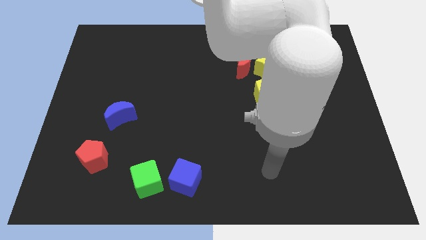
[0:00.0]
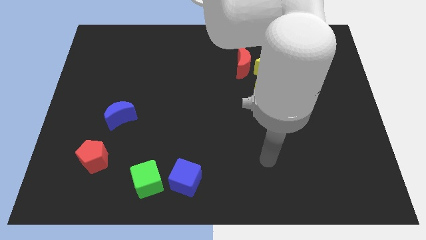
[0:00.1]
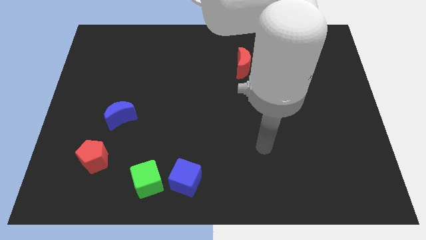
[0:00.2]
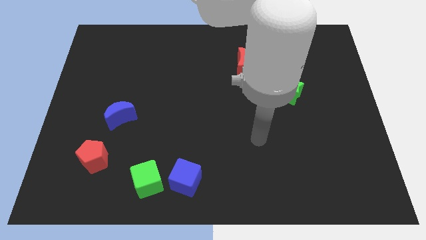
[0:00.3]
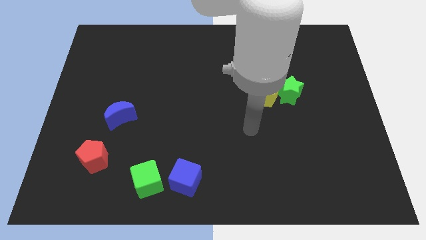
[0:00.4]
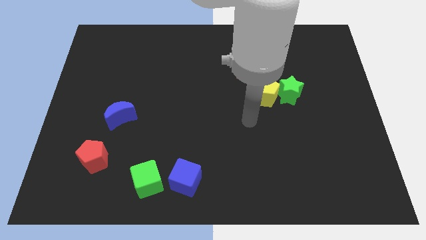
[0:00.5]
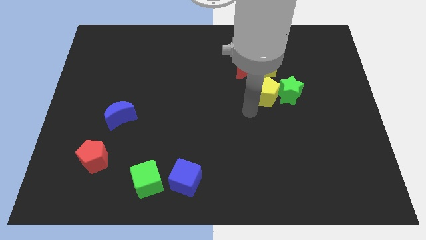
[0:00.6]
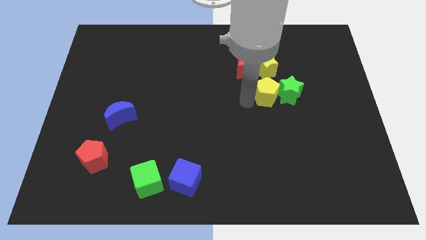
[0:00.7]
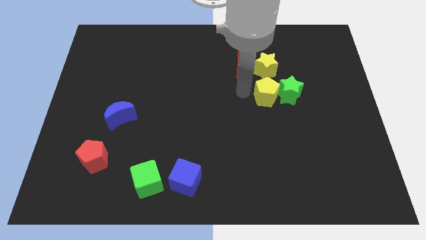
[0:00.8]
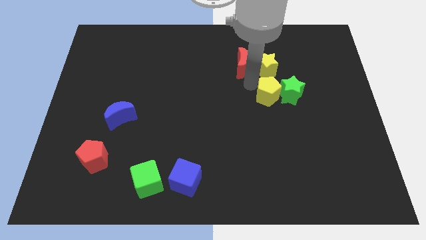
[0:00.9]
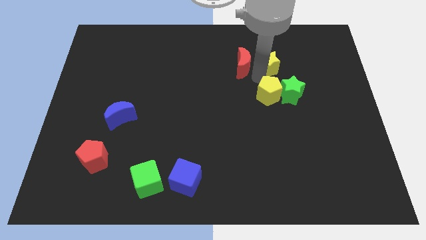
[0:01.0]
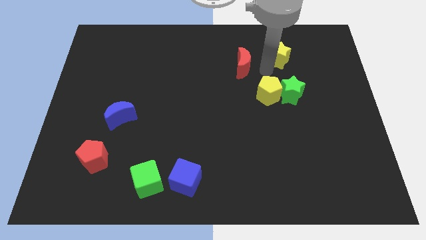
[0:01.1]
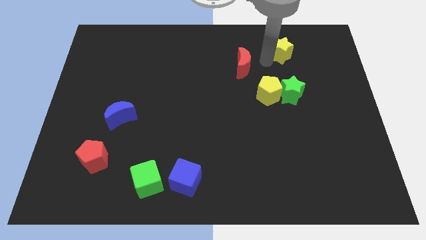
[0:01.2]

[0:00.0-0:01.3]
pull the red moon apart from the yellow star

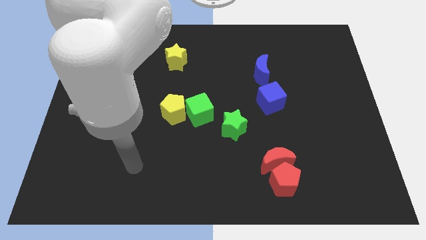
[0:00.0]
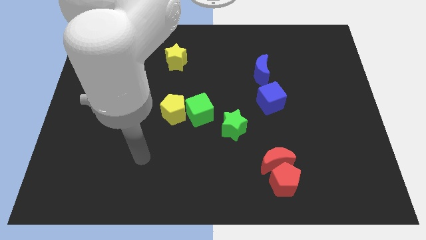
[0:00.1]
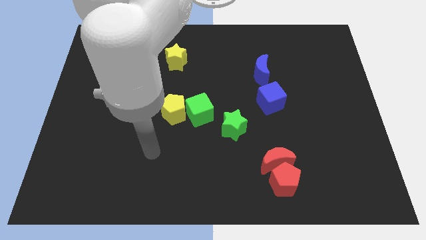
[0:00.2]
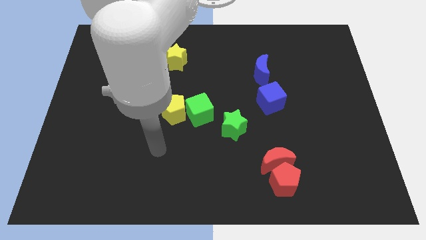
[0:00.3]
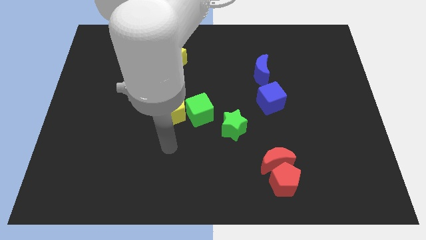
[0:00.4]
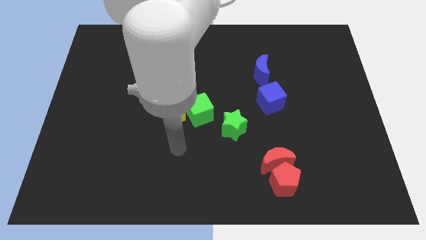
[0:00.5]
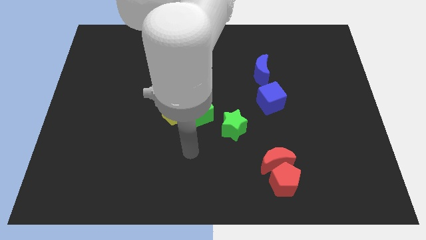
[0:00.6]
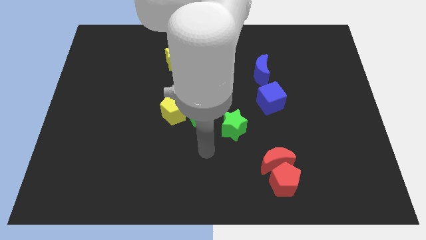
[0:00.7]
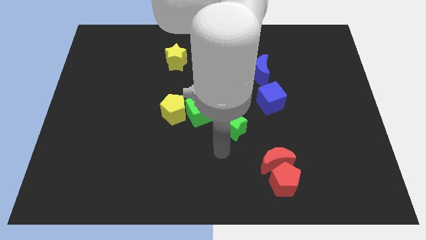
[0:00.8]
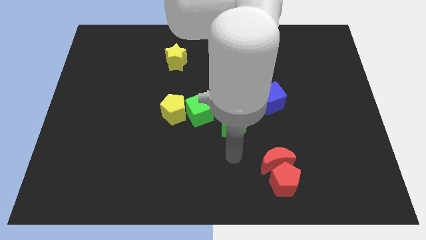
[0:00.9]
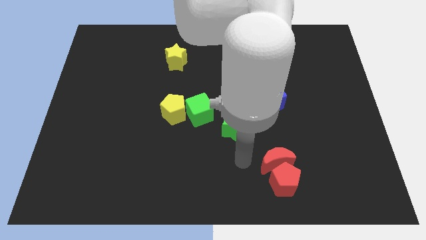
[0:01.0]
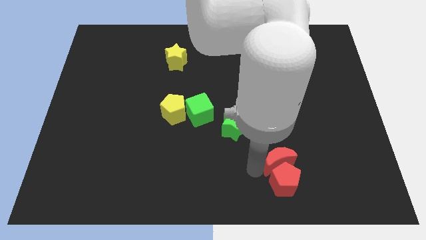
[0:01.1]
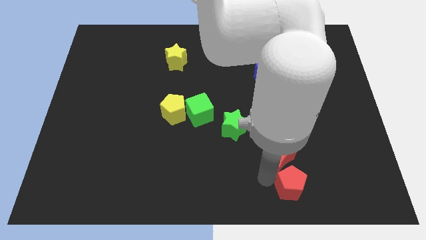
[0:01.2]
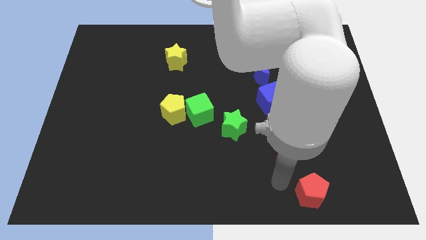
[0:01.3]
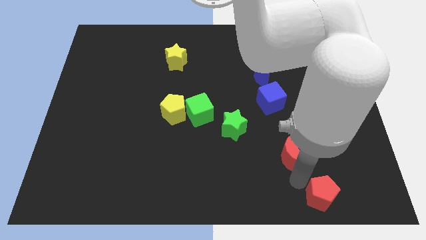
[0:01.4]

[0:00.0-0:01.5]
pull the red moon apart from the red pentagon

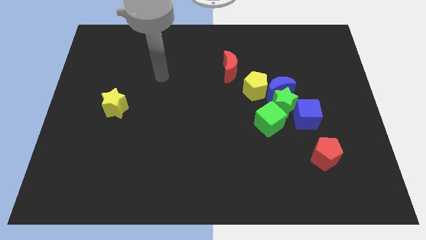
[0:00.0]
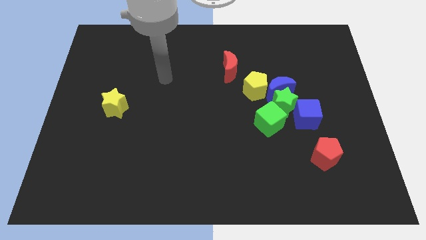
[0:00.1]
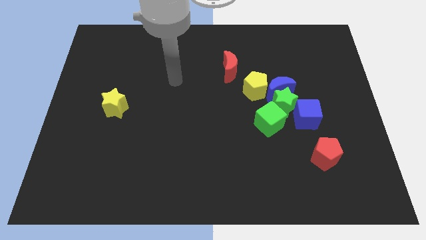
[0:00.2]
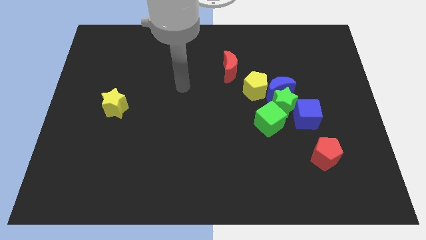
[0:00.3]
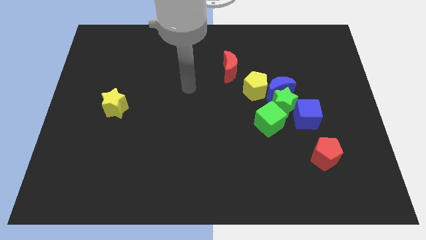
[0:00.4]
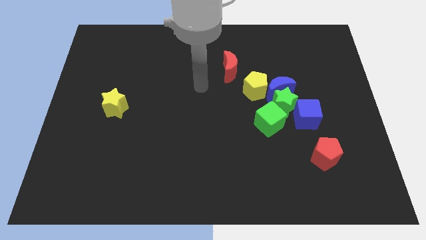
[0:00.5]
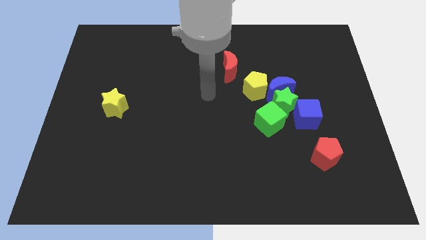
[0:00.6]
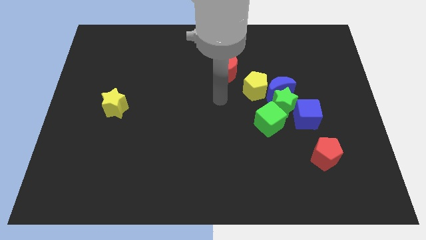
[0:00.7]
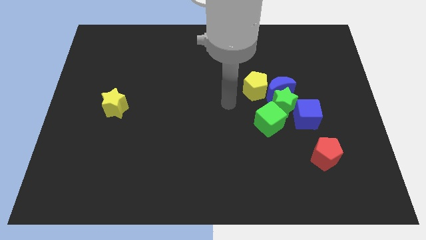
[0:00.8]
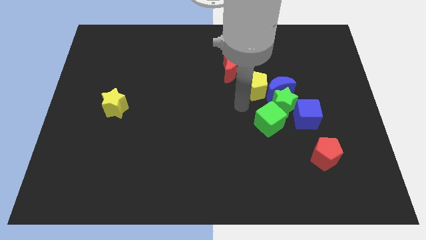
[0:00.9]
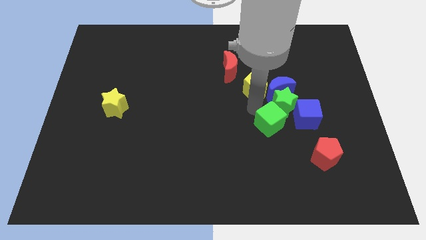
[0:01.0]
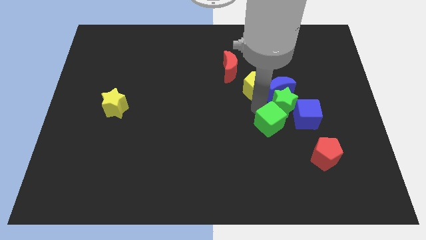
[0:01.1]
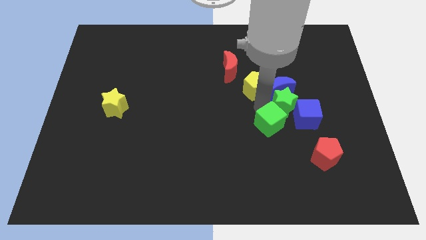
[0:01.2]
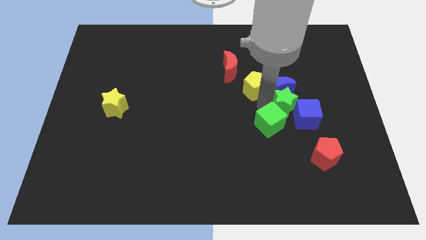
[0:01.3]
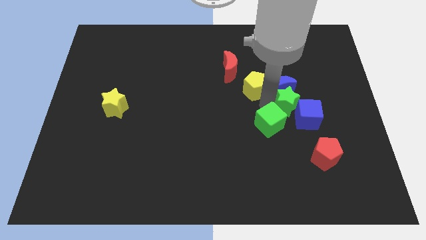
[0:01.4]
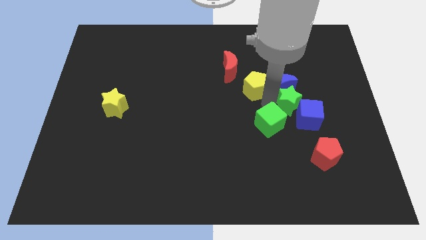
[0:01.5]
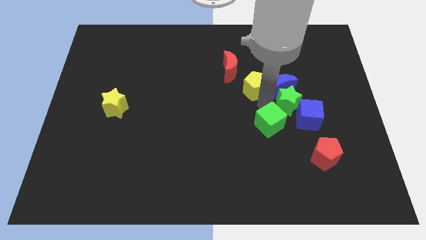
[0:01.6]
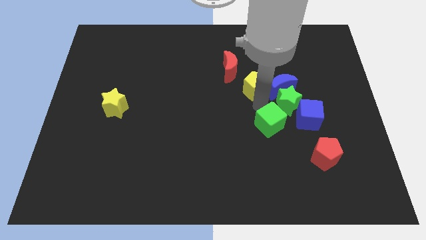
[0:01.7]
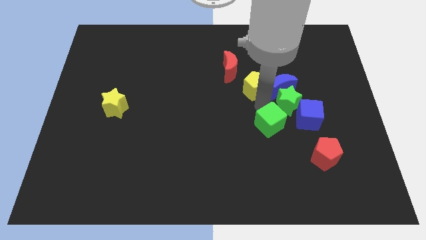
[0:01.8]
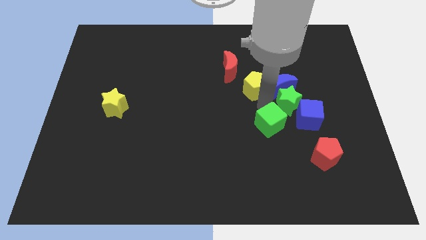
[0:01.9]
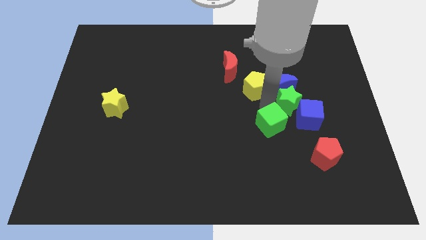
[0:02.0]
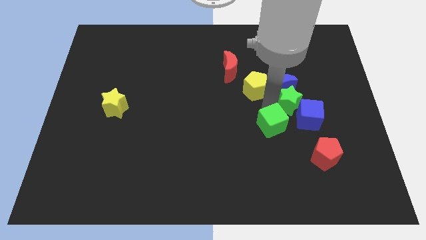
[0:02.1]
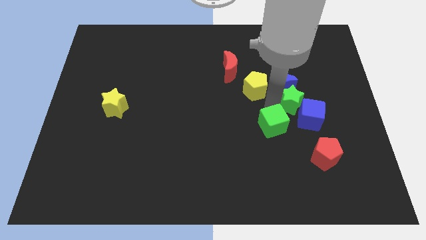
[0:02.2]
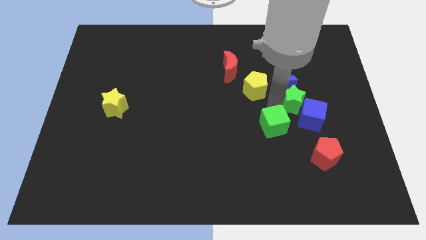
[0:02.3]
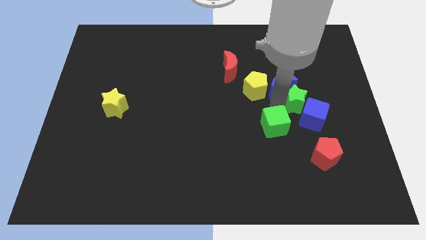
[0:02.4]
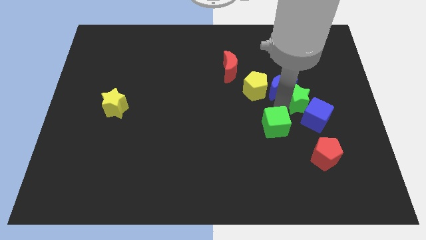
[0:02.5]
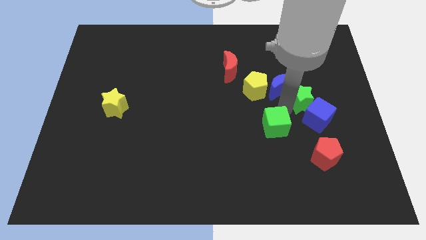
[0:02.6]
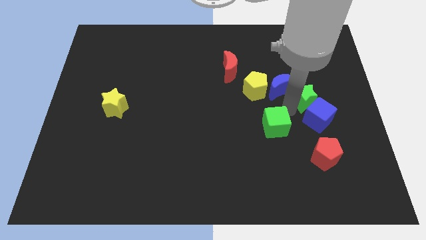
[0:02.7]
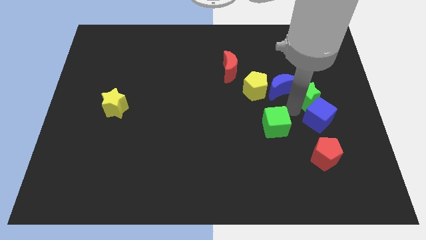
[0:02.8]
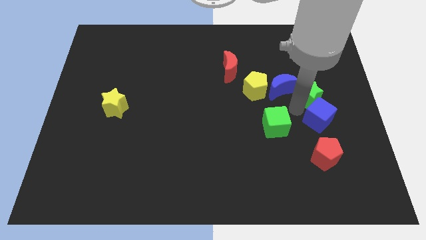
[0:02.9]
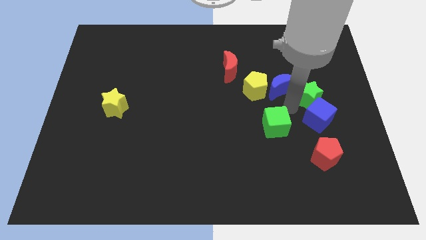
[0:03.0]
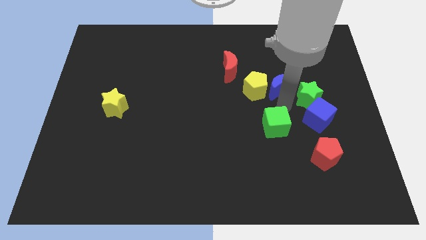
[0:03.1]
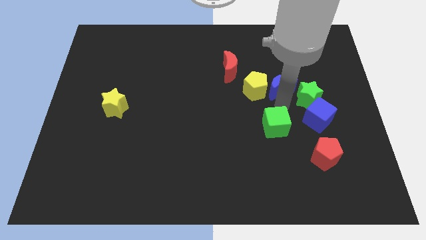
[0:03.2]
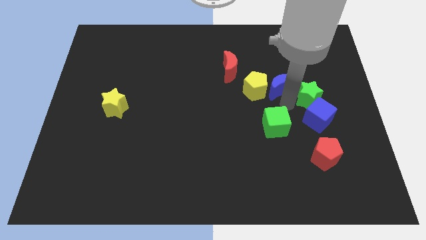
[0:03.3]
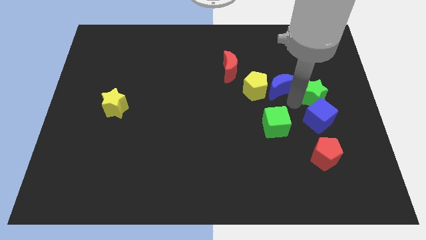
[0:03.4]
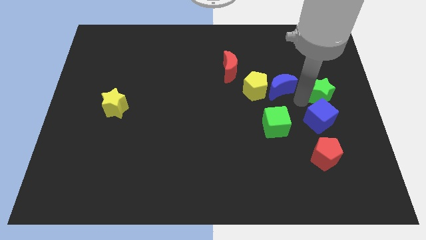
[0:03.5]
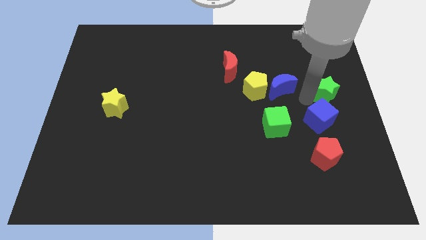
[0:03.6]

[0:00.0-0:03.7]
separate the green star from the group of blocks

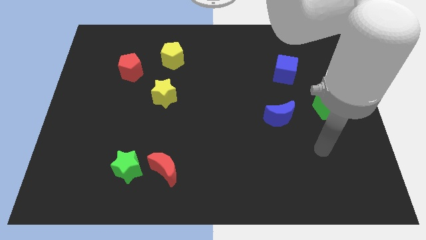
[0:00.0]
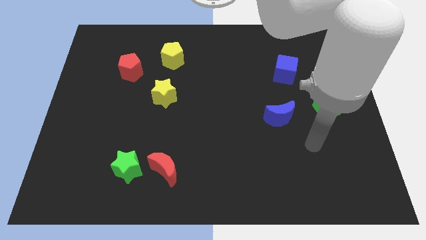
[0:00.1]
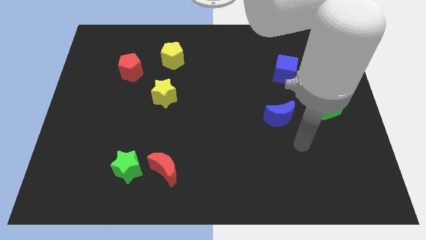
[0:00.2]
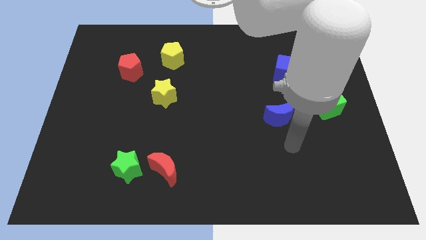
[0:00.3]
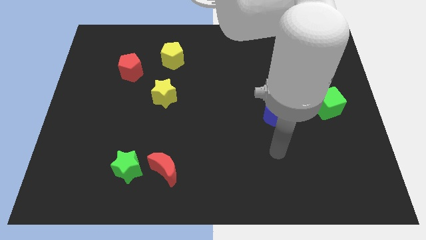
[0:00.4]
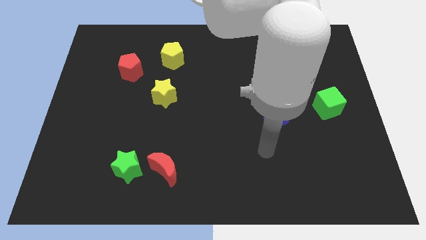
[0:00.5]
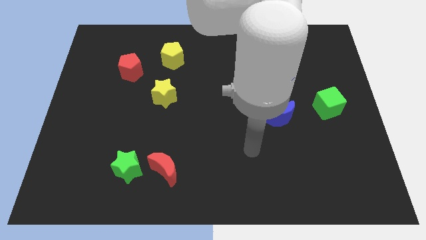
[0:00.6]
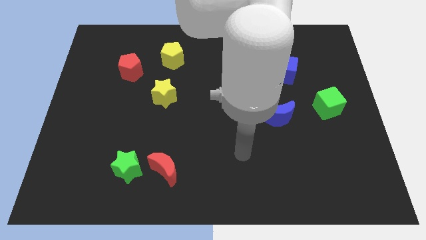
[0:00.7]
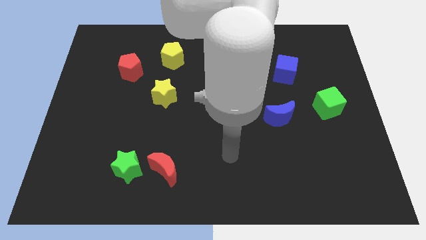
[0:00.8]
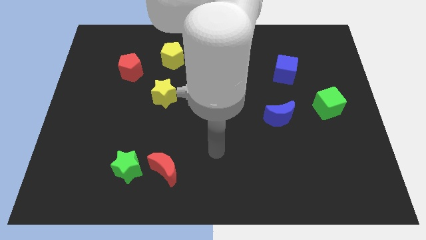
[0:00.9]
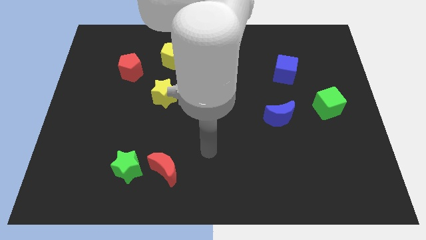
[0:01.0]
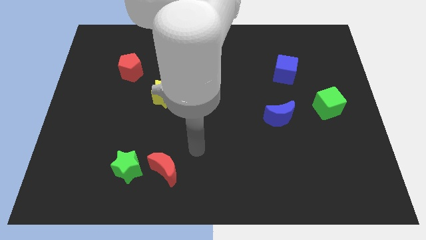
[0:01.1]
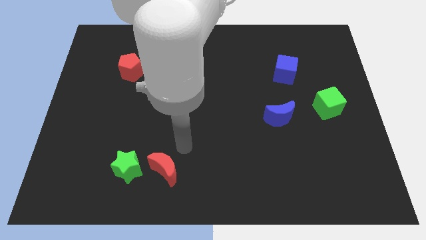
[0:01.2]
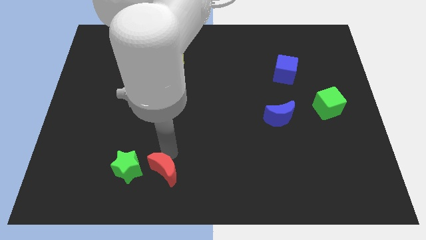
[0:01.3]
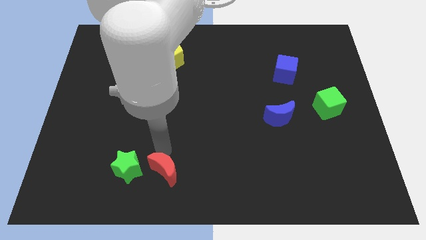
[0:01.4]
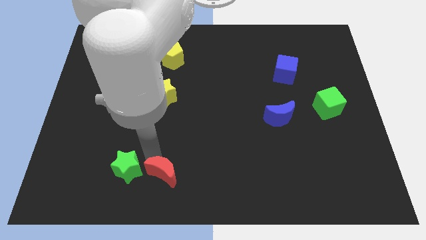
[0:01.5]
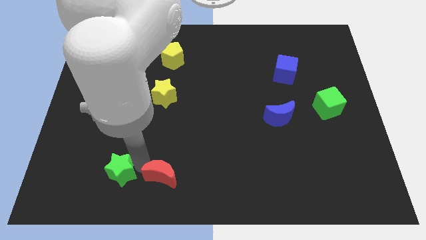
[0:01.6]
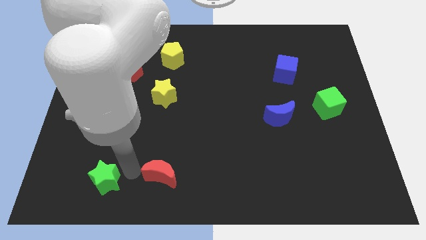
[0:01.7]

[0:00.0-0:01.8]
move the red moon away from the green star

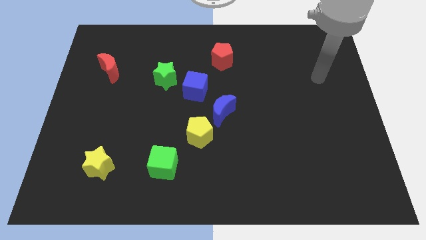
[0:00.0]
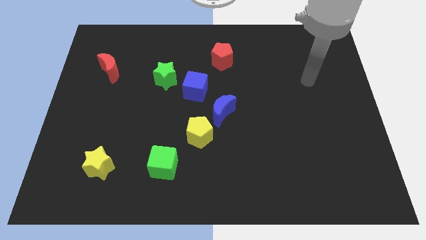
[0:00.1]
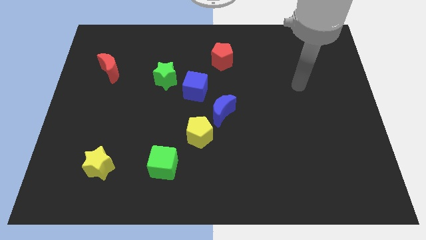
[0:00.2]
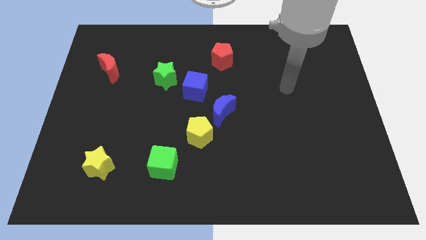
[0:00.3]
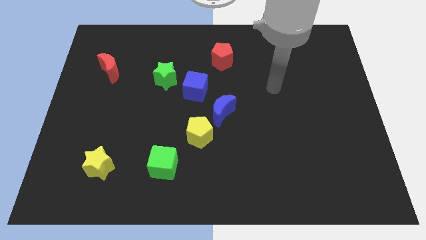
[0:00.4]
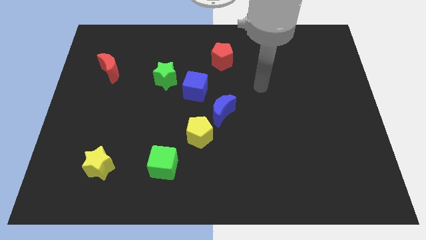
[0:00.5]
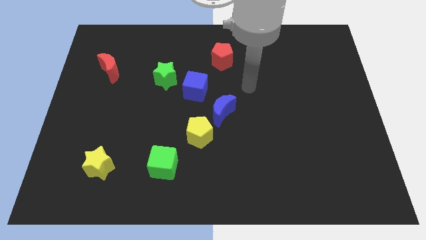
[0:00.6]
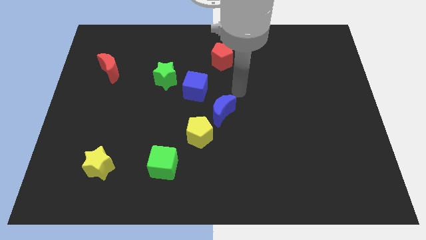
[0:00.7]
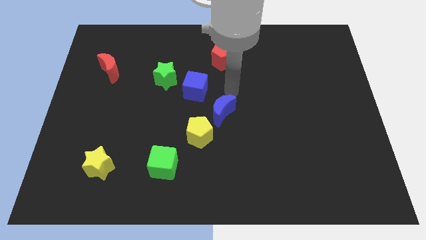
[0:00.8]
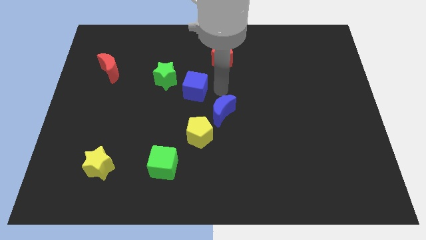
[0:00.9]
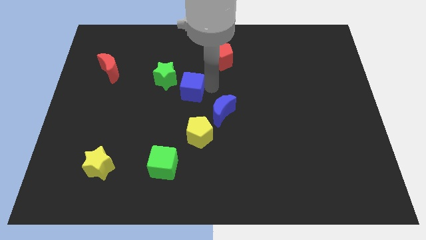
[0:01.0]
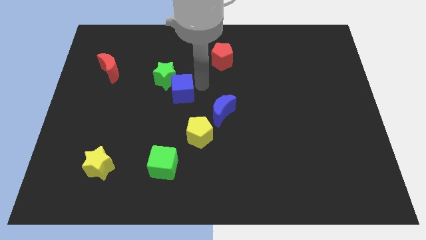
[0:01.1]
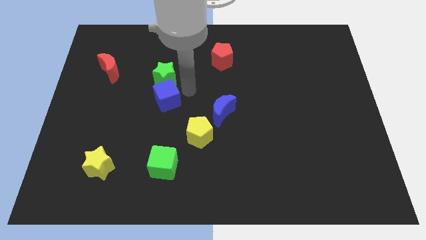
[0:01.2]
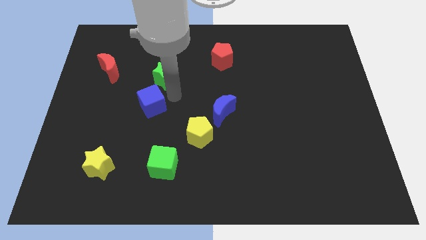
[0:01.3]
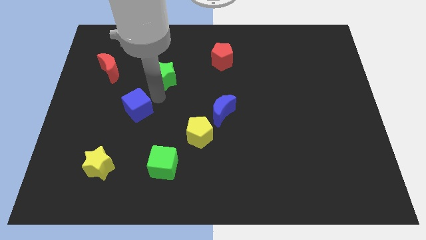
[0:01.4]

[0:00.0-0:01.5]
move the green star away from the blue cube
